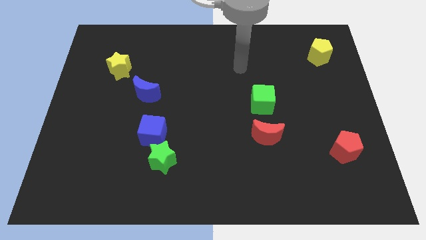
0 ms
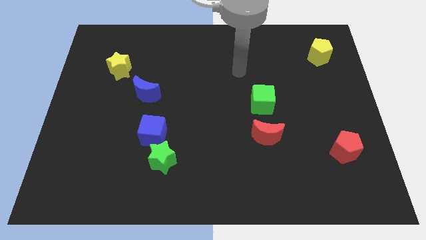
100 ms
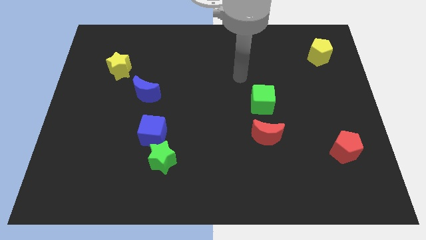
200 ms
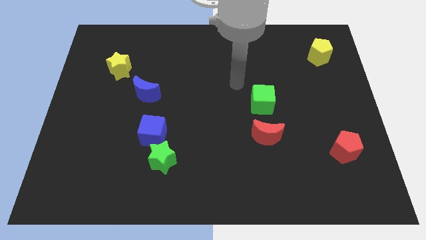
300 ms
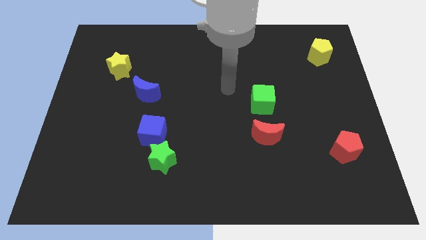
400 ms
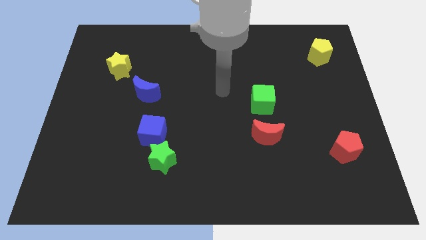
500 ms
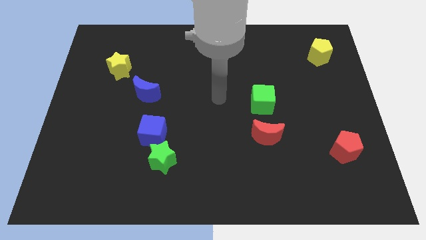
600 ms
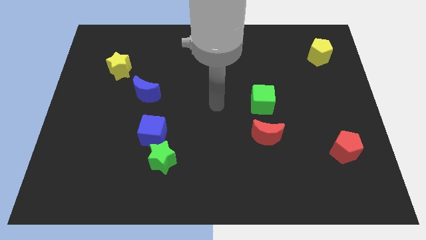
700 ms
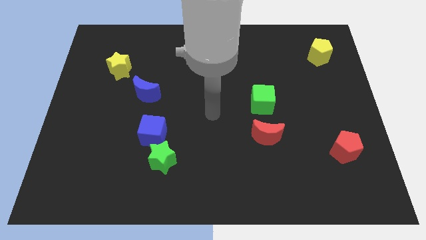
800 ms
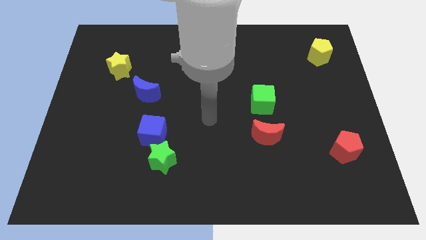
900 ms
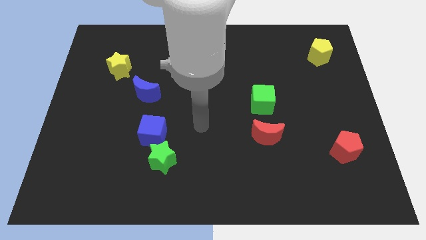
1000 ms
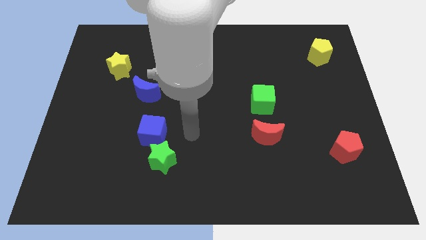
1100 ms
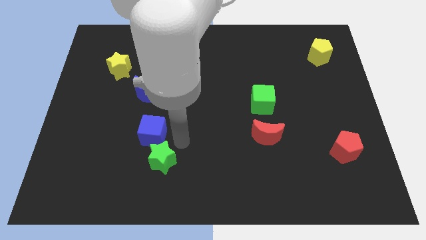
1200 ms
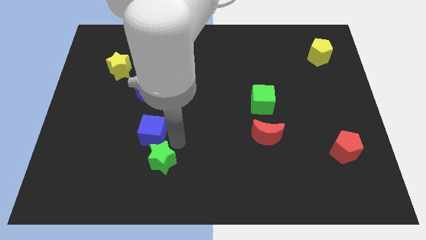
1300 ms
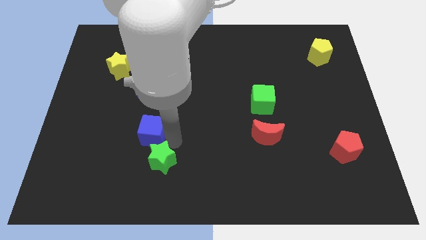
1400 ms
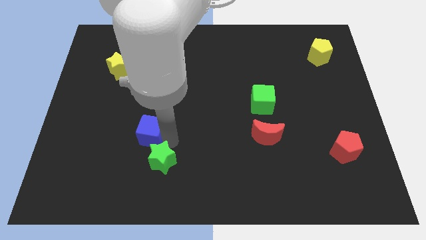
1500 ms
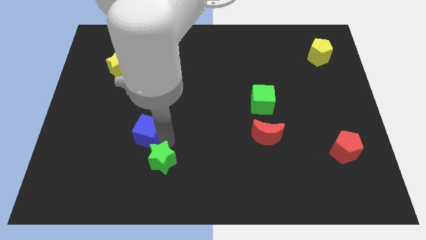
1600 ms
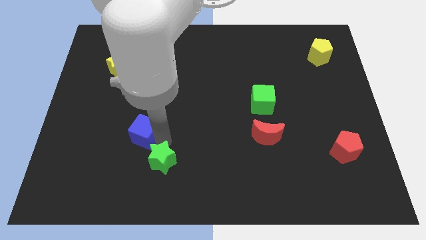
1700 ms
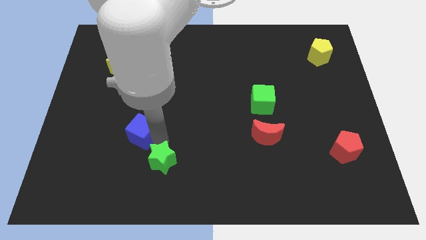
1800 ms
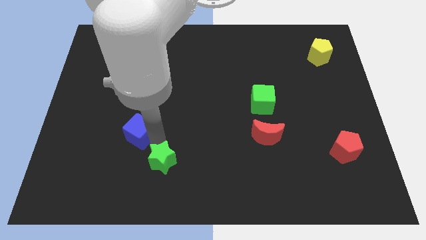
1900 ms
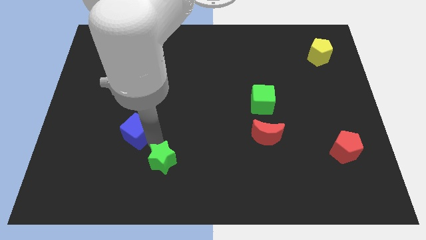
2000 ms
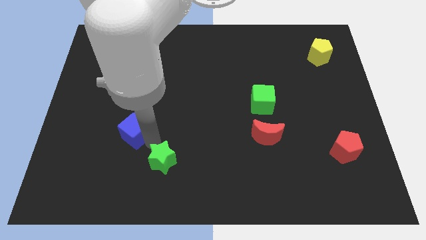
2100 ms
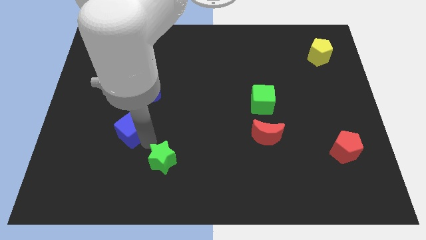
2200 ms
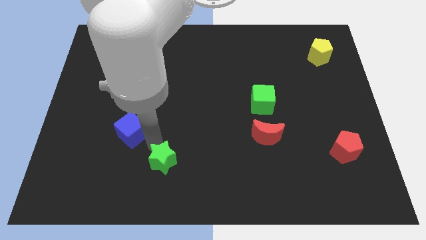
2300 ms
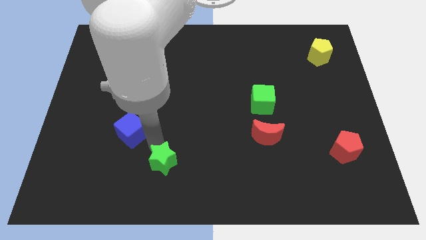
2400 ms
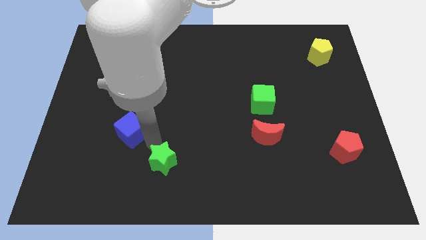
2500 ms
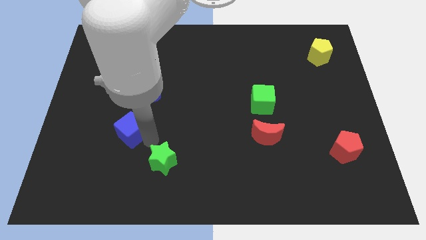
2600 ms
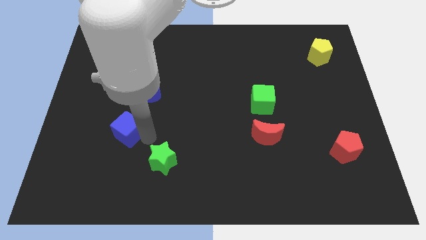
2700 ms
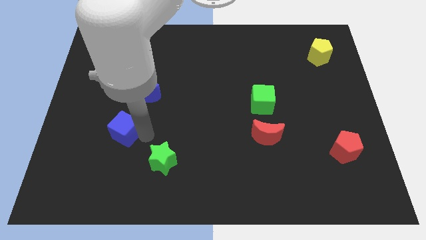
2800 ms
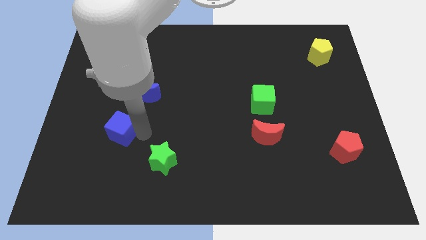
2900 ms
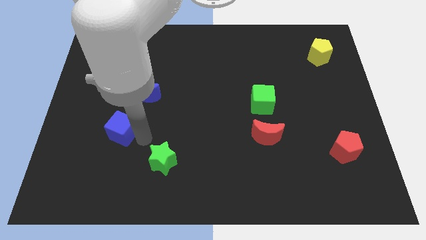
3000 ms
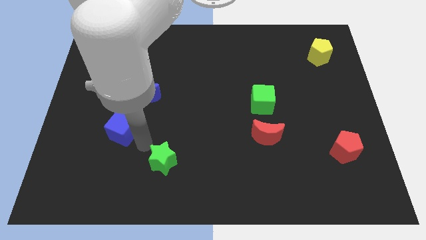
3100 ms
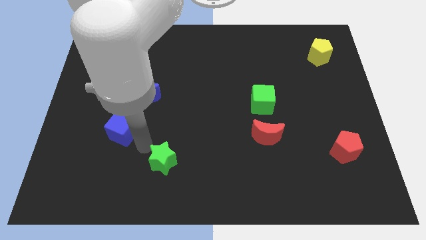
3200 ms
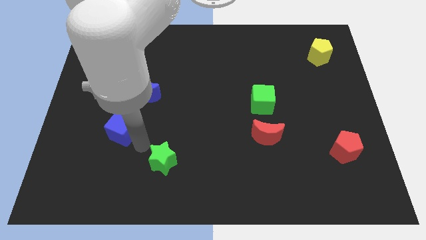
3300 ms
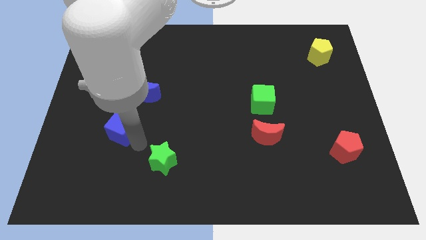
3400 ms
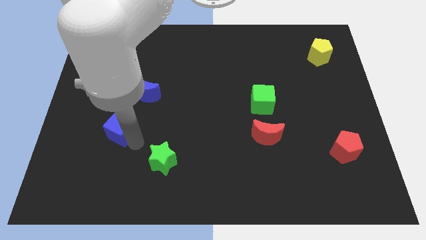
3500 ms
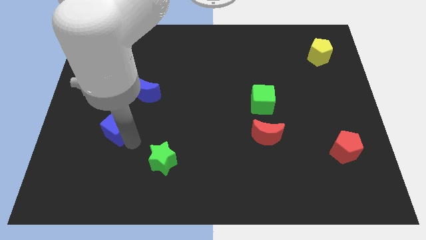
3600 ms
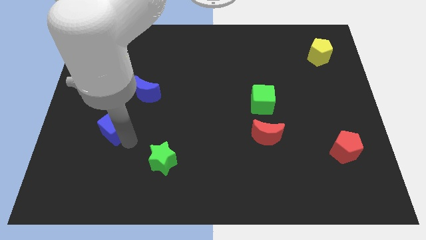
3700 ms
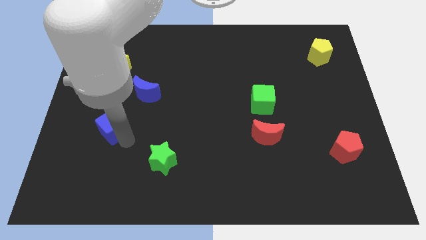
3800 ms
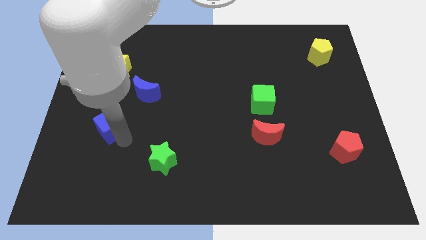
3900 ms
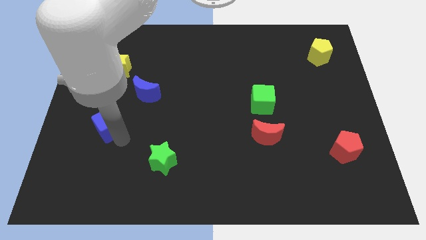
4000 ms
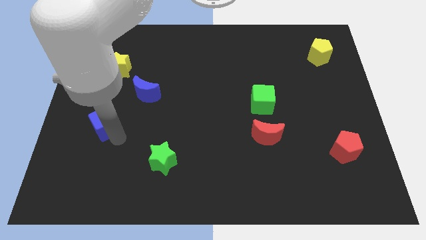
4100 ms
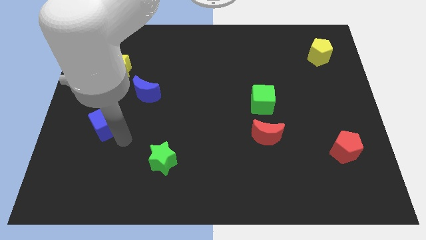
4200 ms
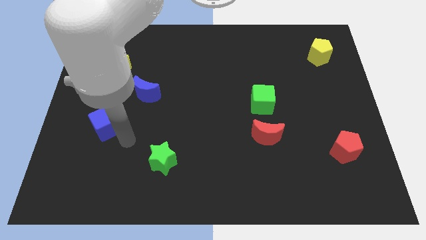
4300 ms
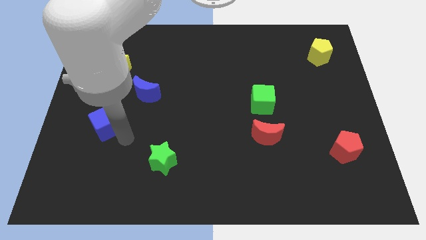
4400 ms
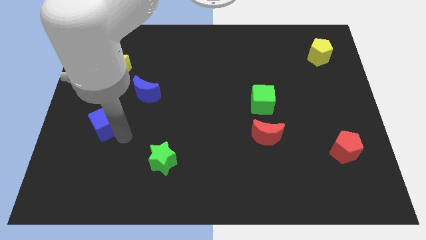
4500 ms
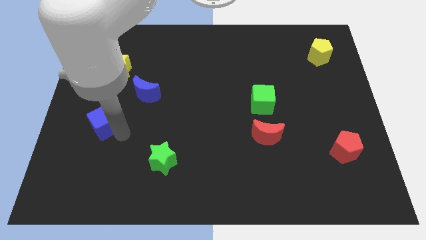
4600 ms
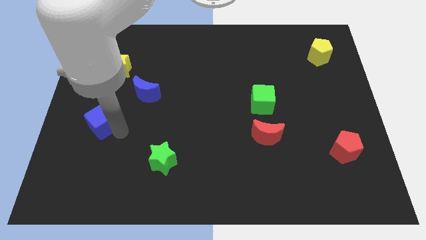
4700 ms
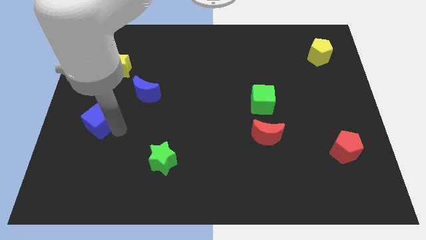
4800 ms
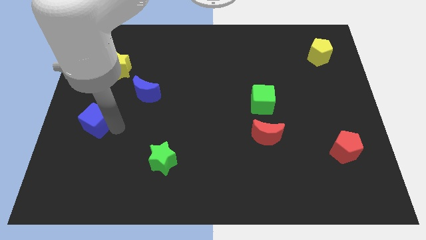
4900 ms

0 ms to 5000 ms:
slide the blue cube to the left side

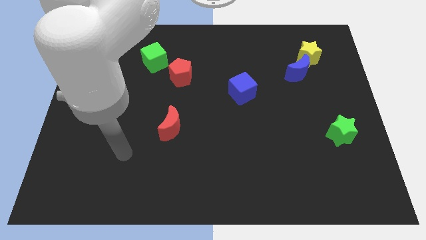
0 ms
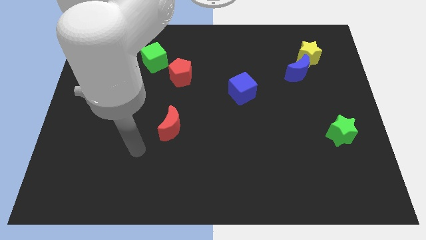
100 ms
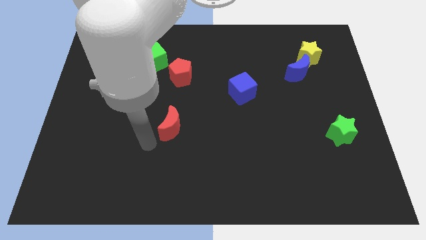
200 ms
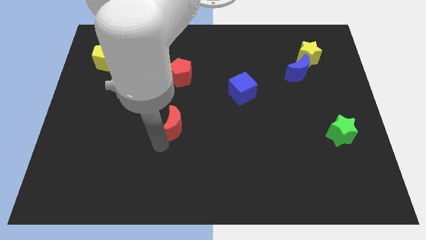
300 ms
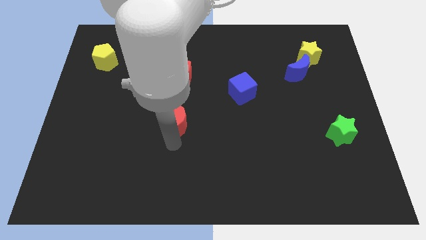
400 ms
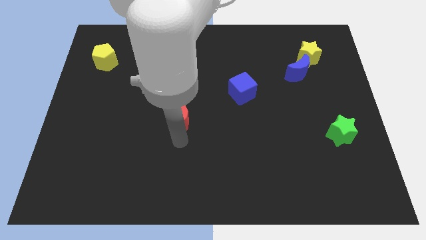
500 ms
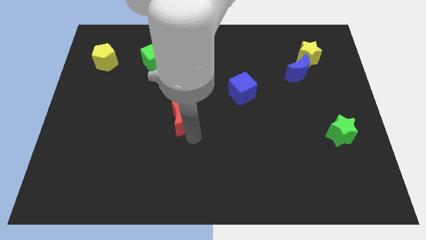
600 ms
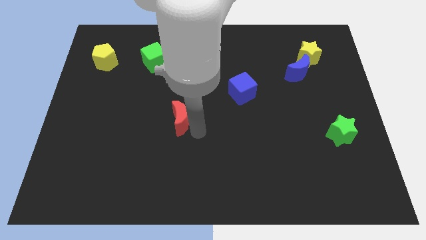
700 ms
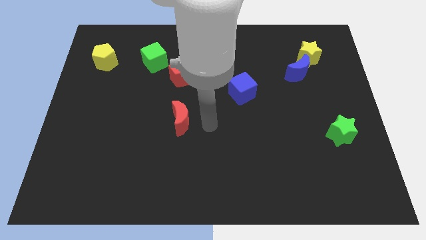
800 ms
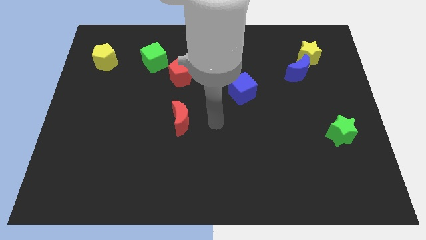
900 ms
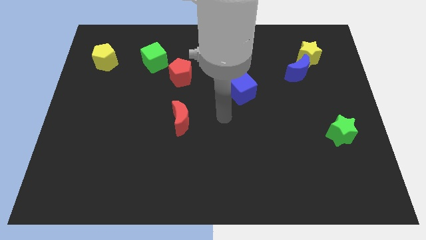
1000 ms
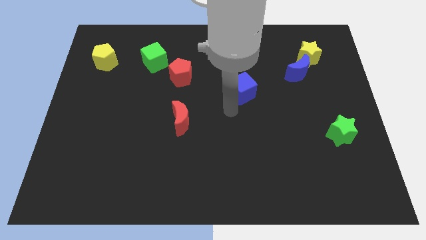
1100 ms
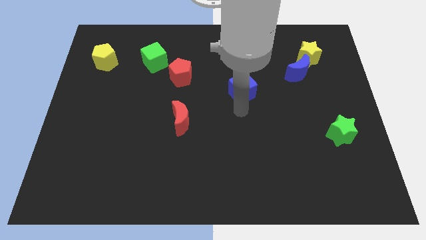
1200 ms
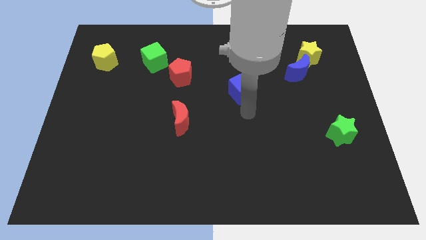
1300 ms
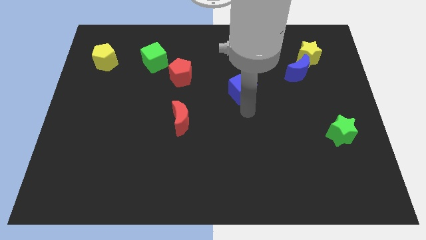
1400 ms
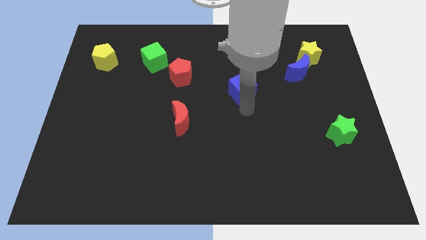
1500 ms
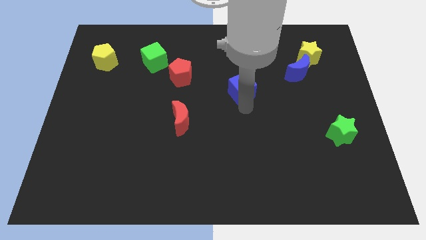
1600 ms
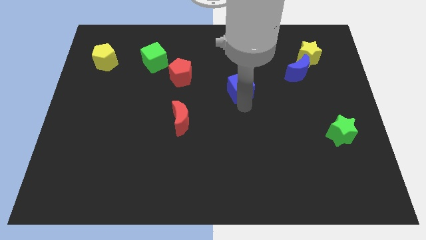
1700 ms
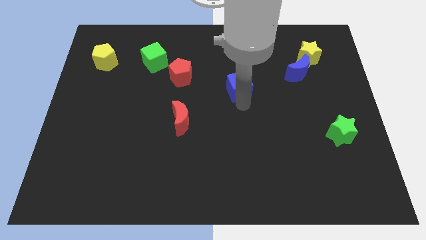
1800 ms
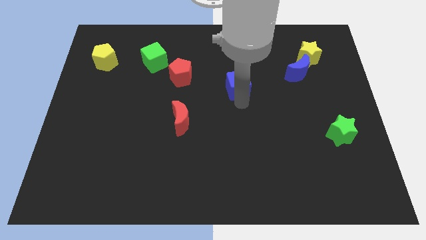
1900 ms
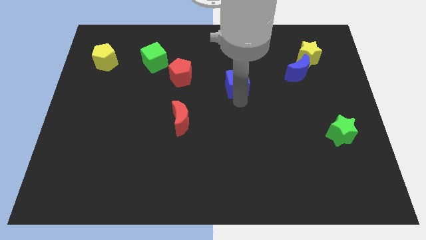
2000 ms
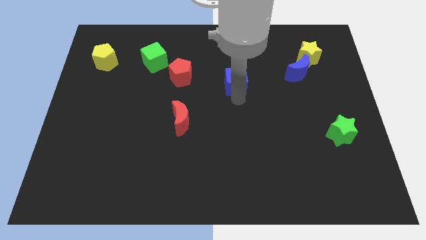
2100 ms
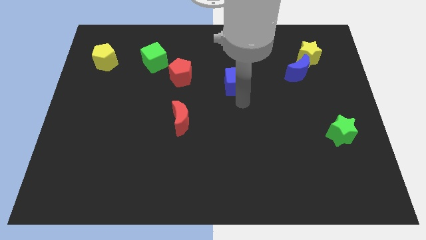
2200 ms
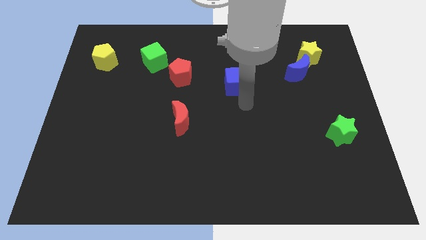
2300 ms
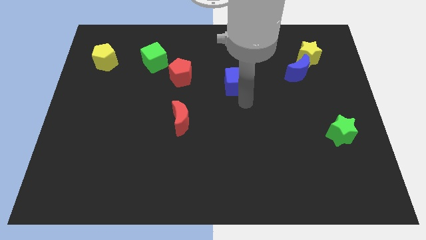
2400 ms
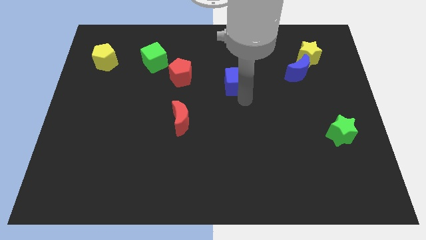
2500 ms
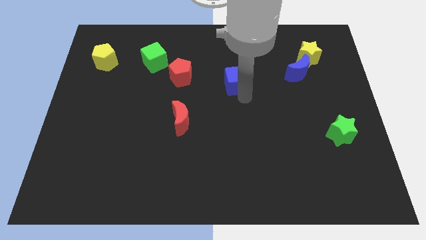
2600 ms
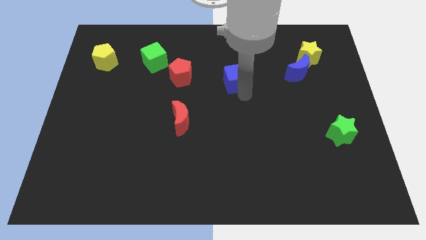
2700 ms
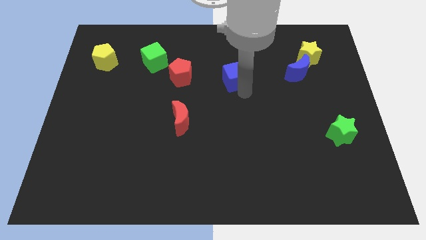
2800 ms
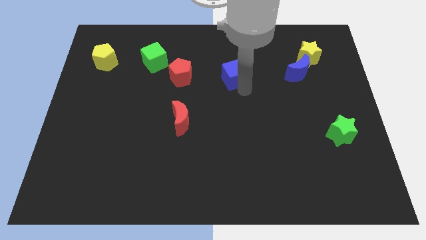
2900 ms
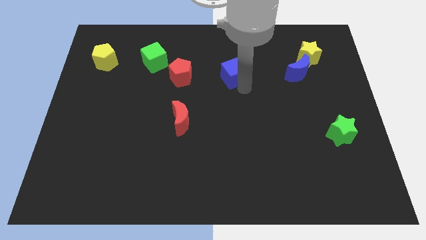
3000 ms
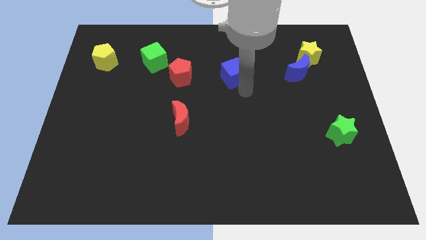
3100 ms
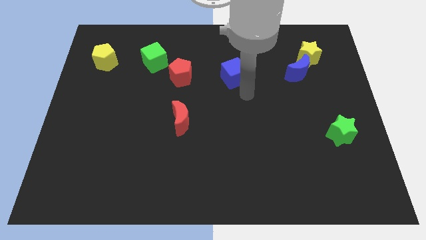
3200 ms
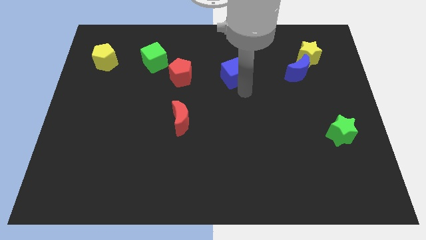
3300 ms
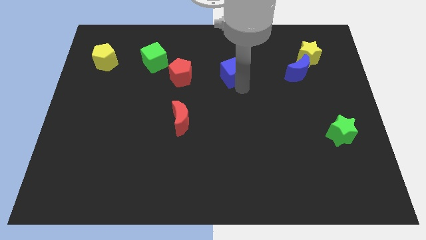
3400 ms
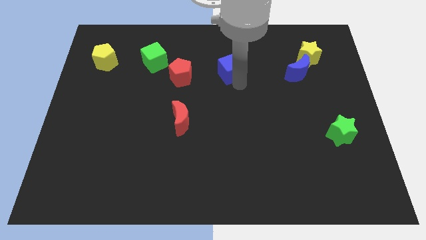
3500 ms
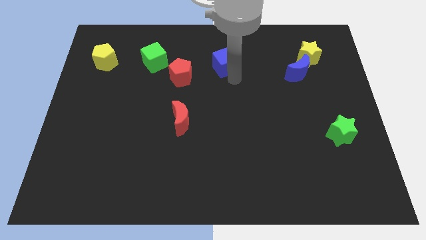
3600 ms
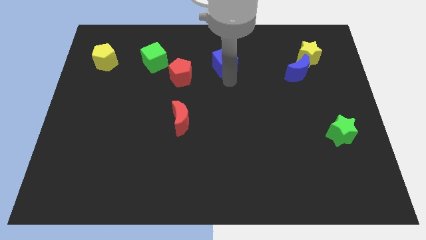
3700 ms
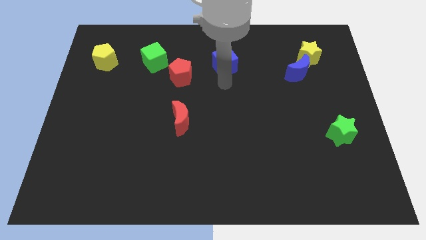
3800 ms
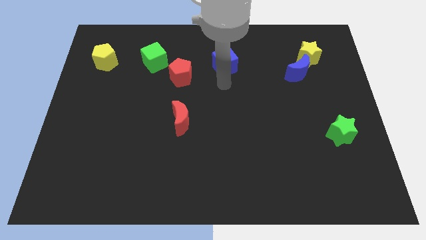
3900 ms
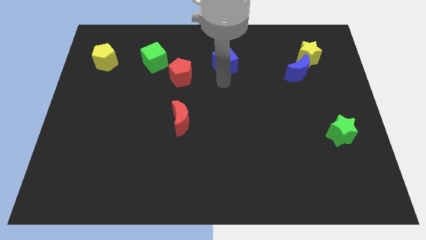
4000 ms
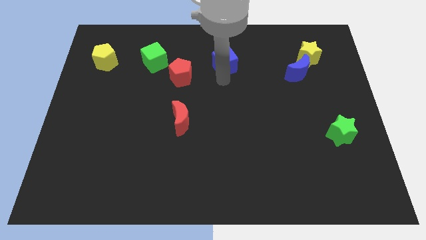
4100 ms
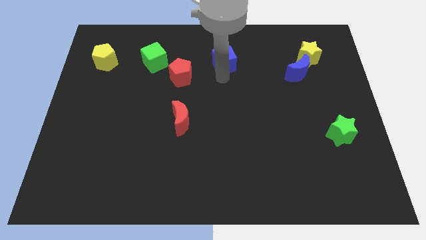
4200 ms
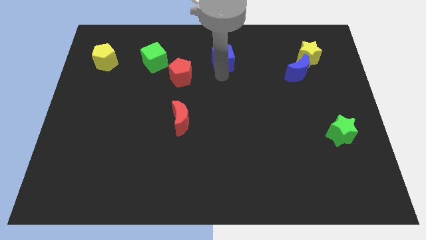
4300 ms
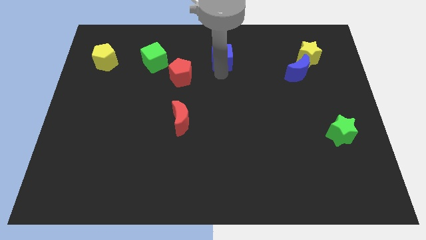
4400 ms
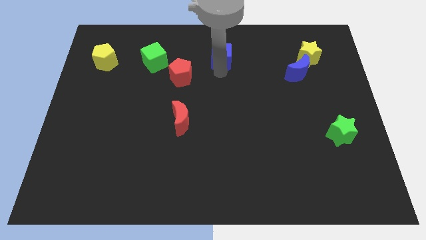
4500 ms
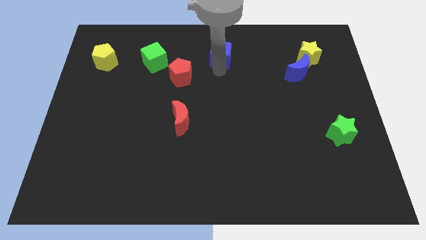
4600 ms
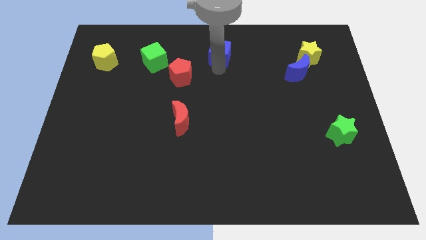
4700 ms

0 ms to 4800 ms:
put the blue cube to the towards your base
